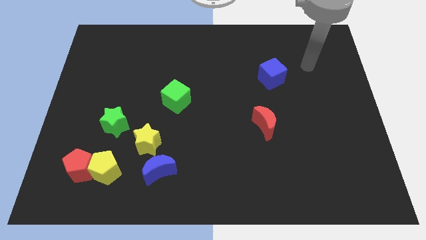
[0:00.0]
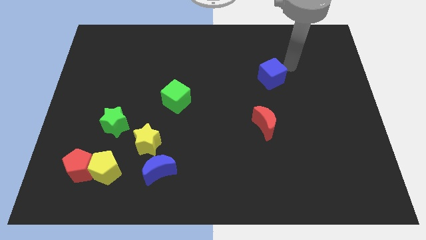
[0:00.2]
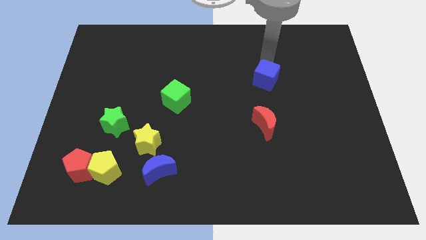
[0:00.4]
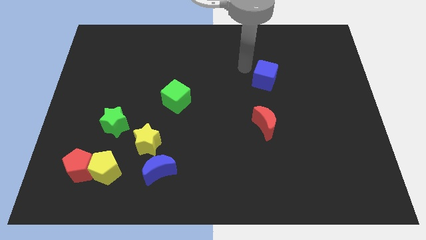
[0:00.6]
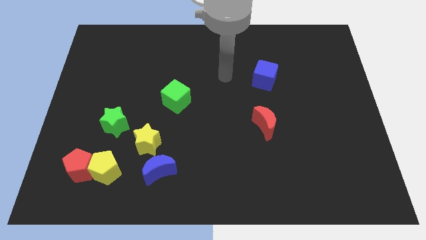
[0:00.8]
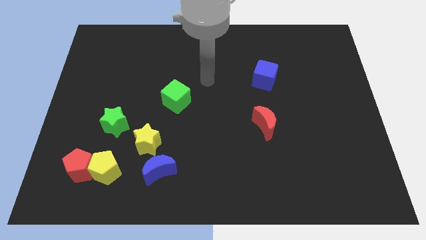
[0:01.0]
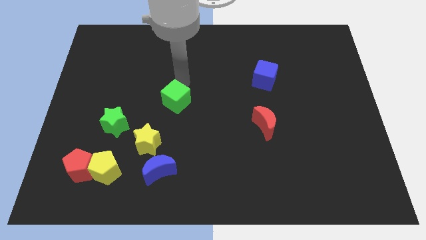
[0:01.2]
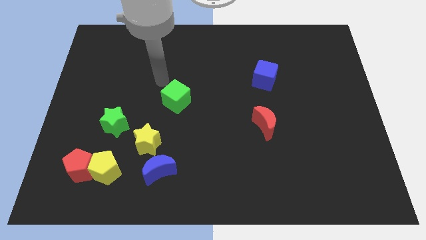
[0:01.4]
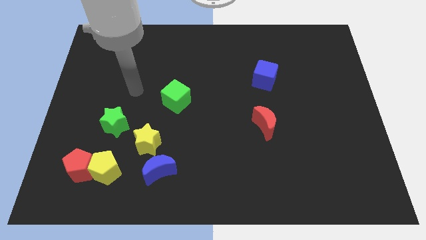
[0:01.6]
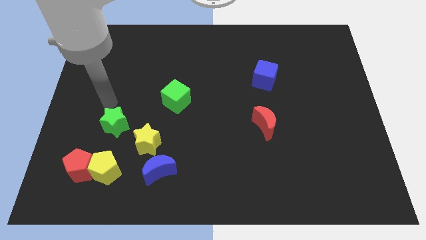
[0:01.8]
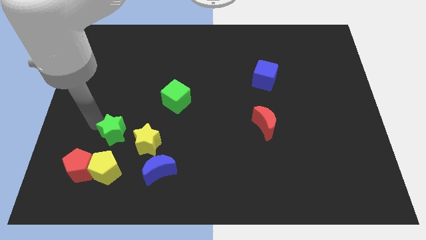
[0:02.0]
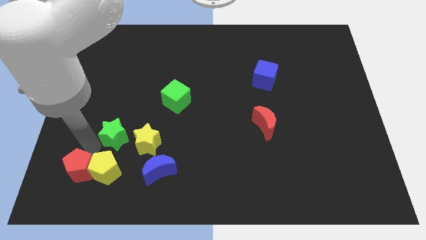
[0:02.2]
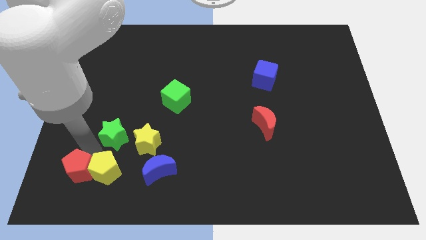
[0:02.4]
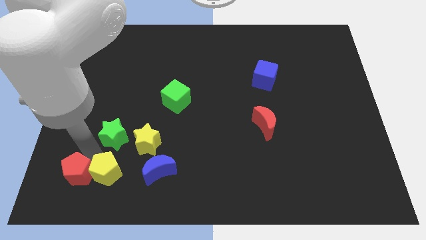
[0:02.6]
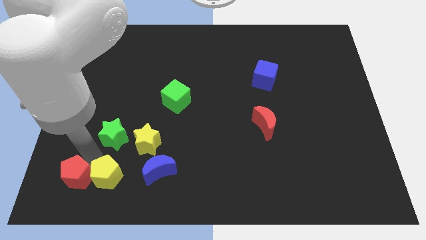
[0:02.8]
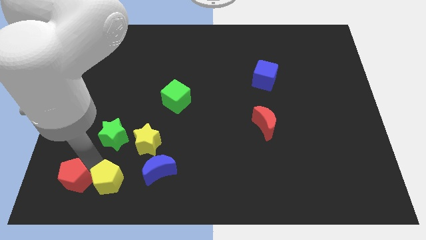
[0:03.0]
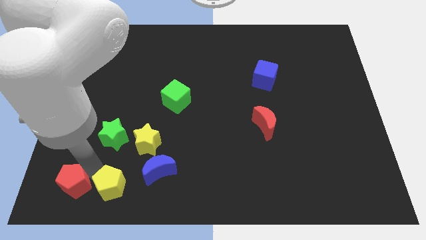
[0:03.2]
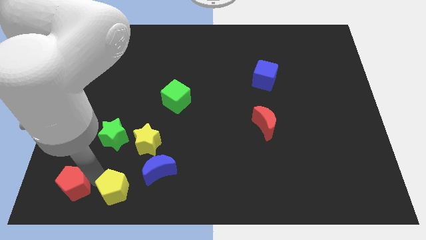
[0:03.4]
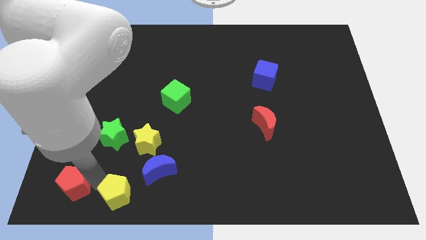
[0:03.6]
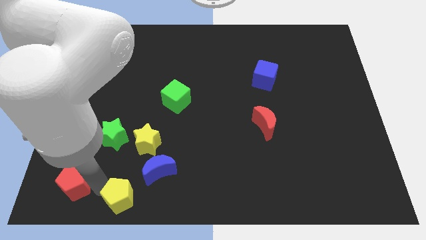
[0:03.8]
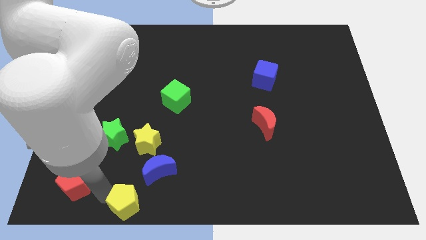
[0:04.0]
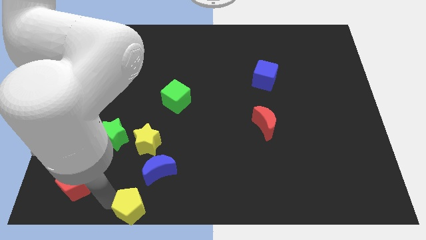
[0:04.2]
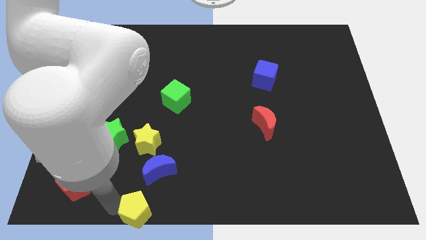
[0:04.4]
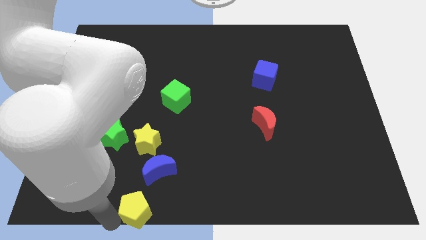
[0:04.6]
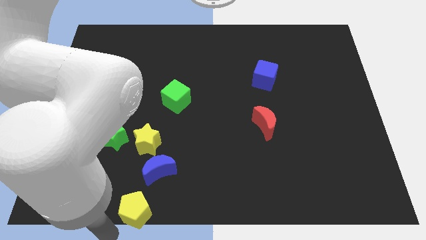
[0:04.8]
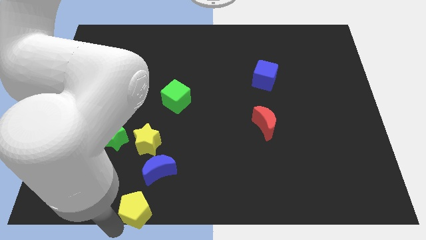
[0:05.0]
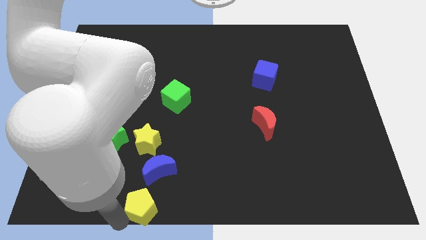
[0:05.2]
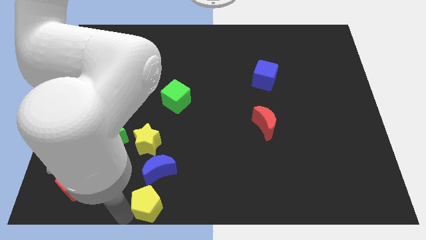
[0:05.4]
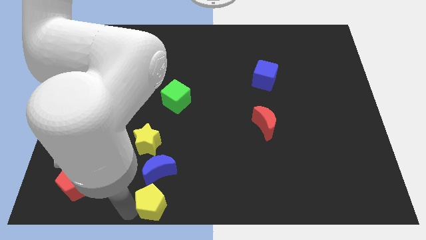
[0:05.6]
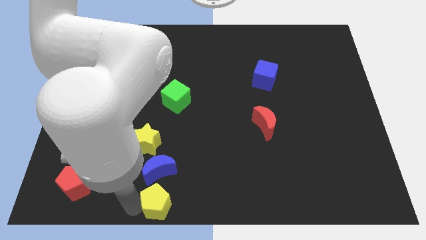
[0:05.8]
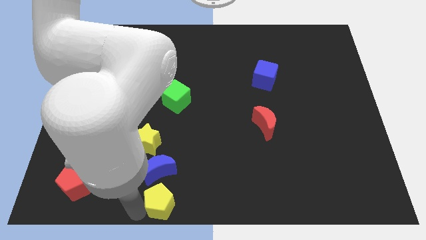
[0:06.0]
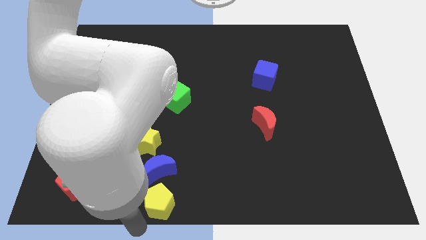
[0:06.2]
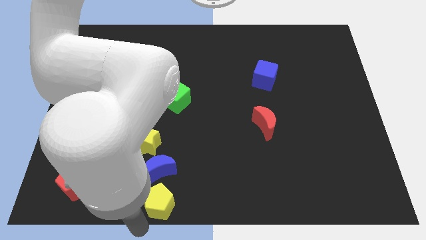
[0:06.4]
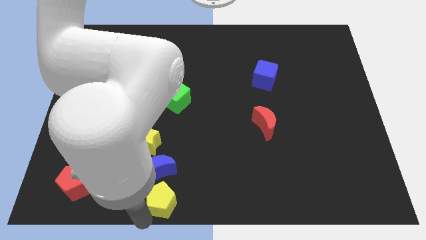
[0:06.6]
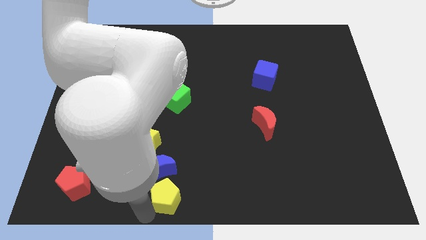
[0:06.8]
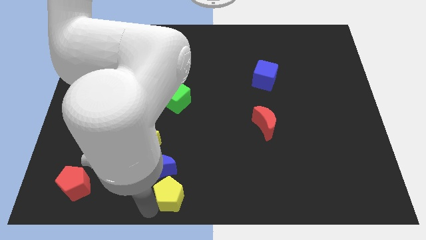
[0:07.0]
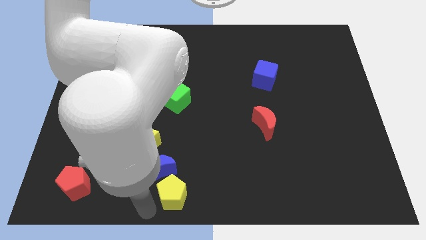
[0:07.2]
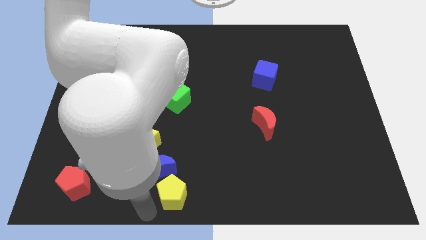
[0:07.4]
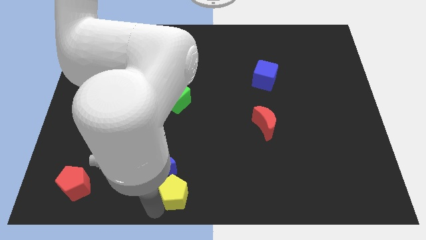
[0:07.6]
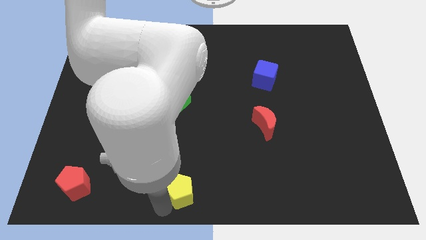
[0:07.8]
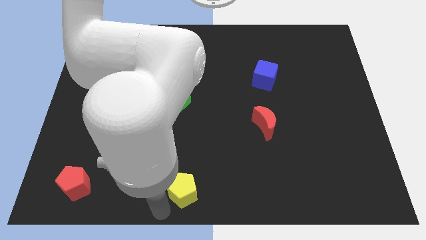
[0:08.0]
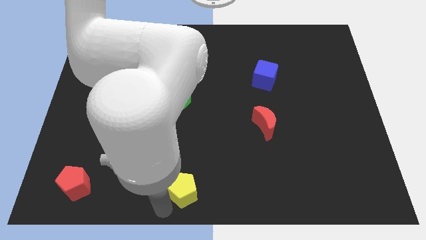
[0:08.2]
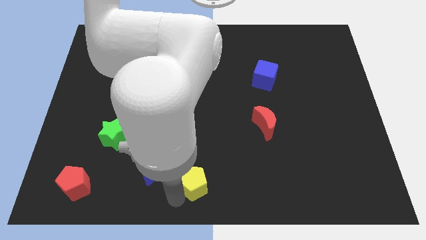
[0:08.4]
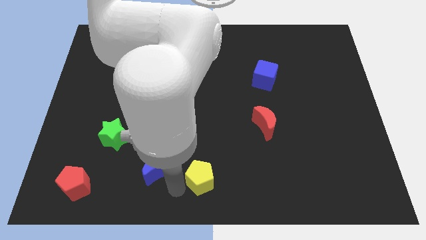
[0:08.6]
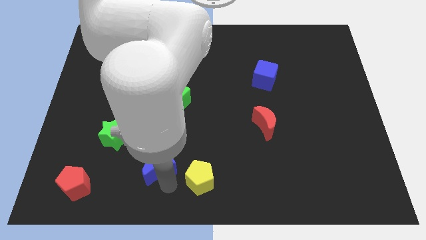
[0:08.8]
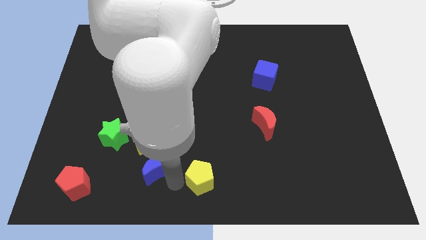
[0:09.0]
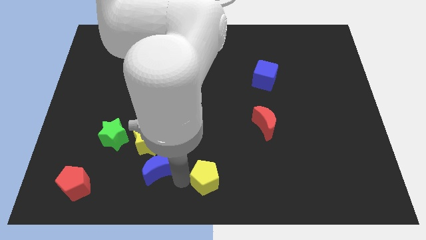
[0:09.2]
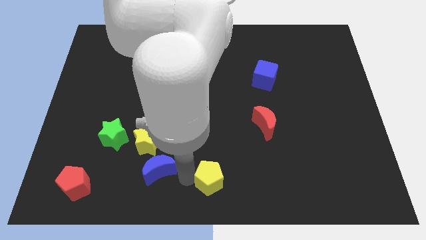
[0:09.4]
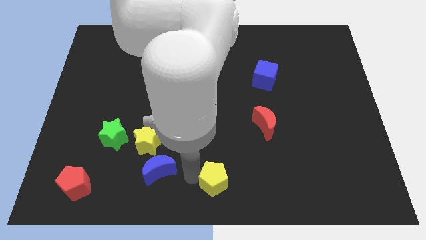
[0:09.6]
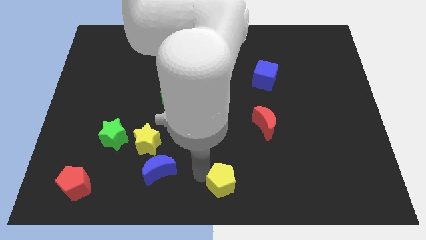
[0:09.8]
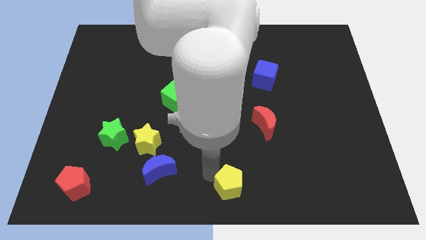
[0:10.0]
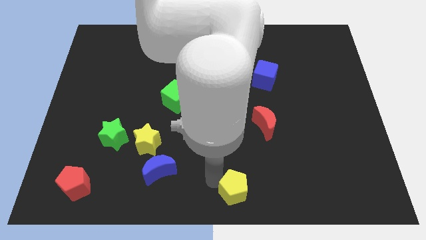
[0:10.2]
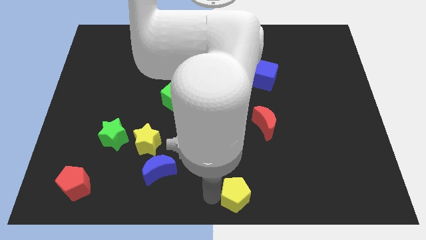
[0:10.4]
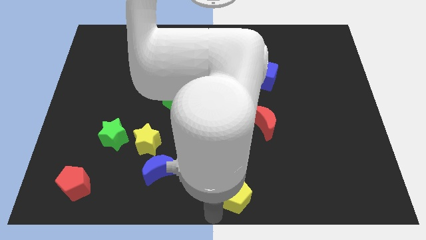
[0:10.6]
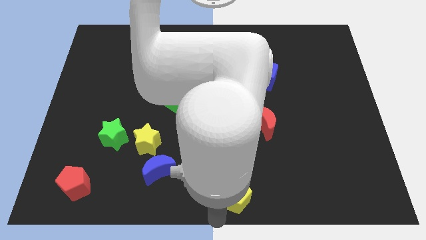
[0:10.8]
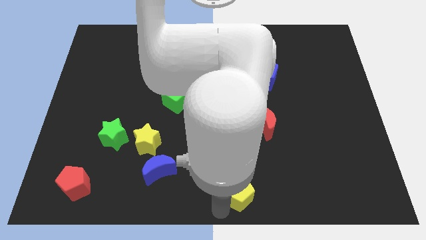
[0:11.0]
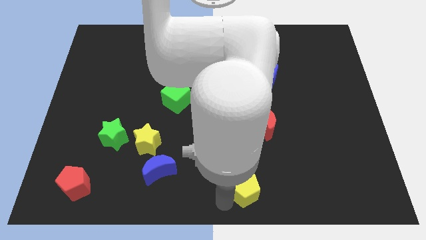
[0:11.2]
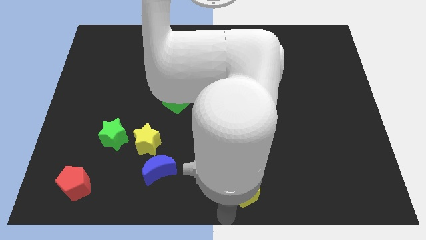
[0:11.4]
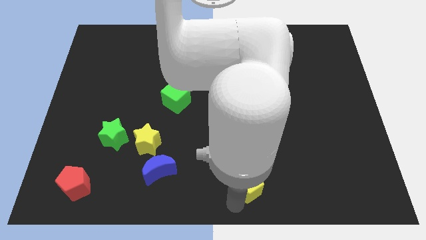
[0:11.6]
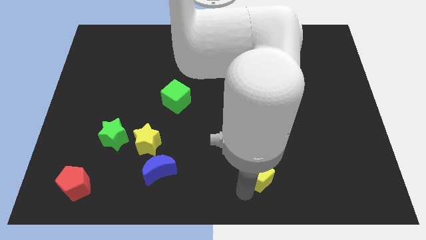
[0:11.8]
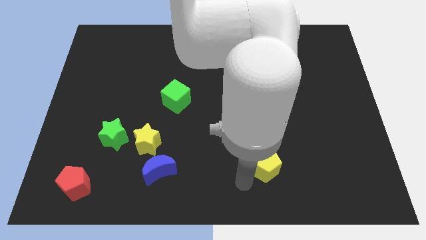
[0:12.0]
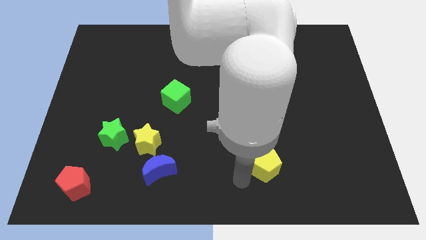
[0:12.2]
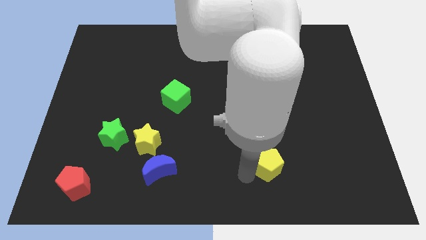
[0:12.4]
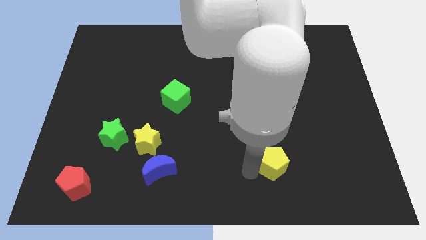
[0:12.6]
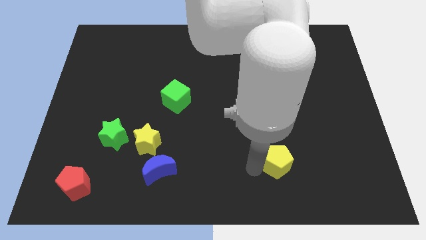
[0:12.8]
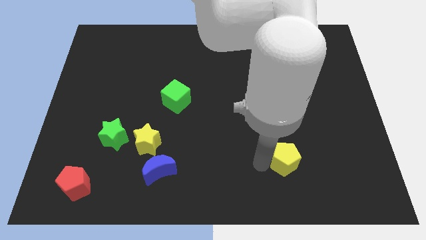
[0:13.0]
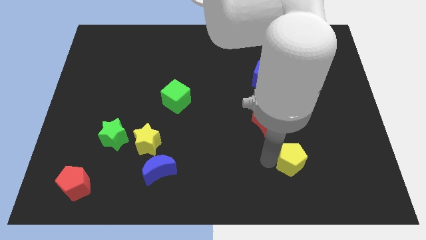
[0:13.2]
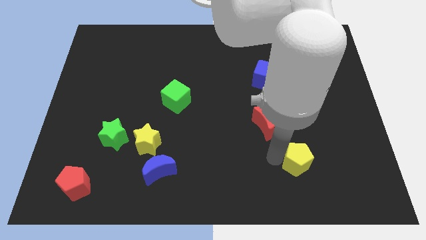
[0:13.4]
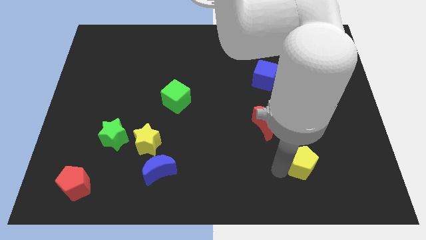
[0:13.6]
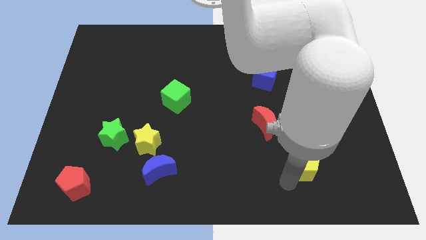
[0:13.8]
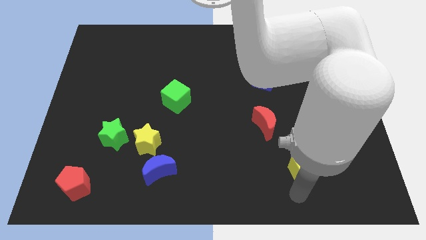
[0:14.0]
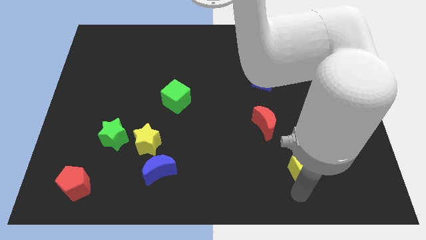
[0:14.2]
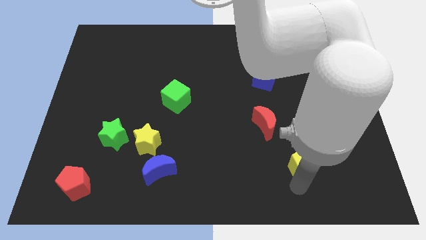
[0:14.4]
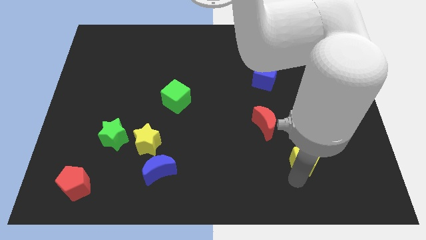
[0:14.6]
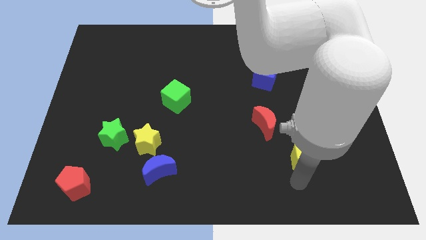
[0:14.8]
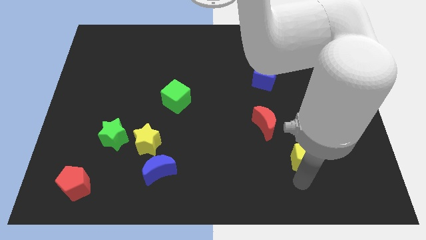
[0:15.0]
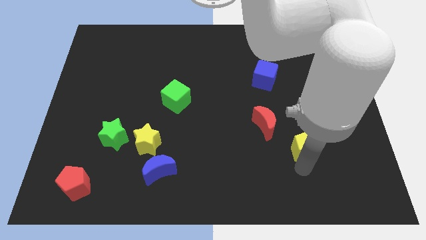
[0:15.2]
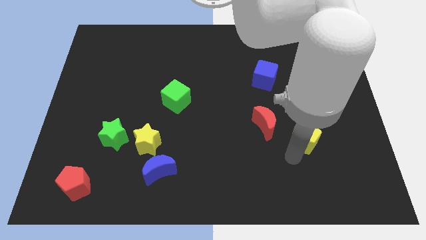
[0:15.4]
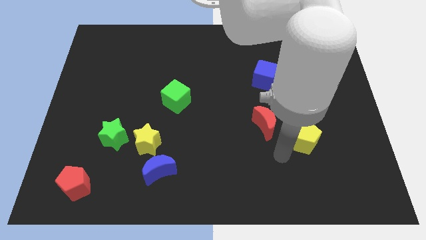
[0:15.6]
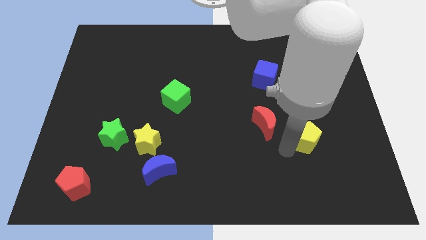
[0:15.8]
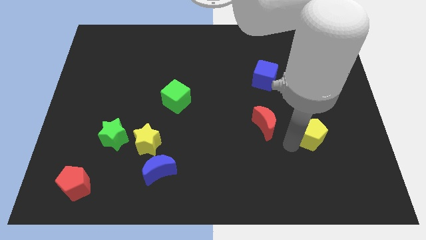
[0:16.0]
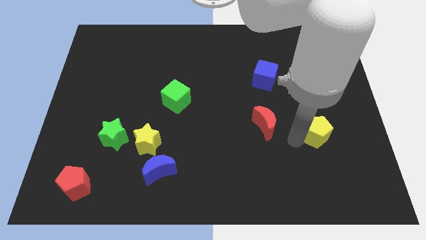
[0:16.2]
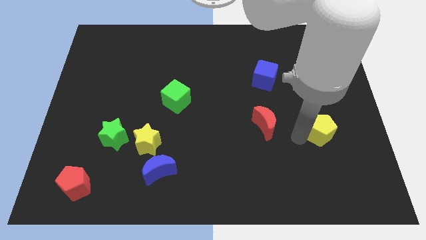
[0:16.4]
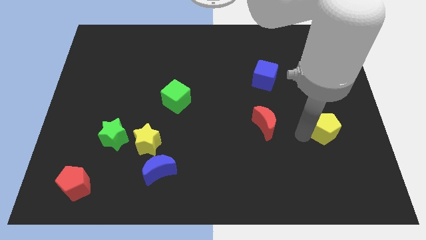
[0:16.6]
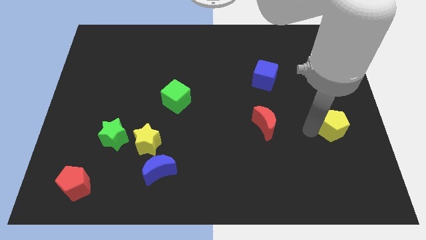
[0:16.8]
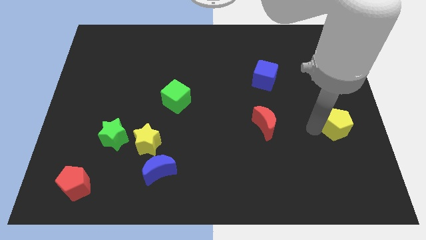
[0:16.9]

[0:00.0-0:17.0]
put the yellow pentagon to the right side of the board
